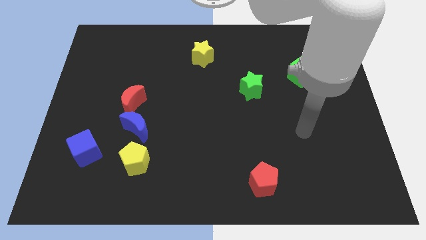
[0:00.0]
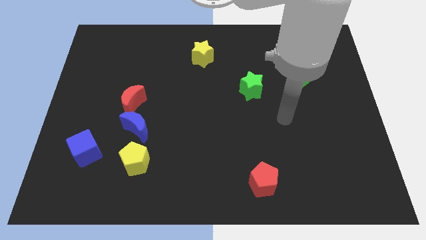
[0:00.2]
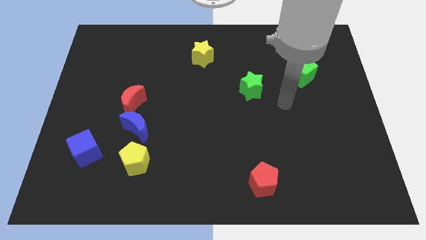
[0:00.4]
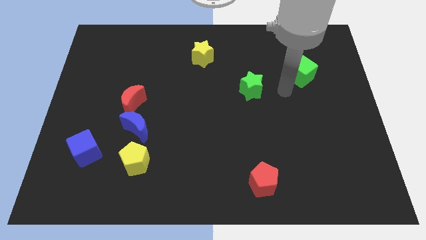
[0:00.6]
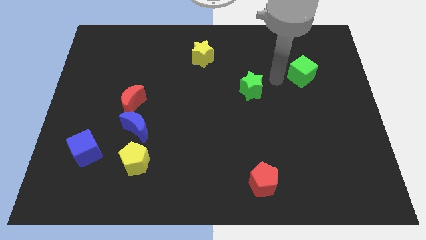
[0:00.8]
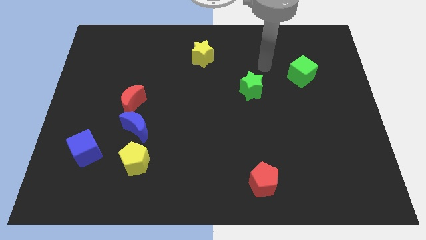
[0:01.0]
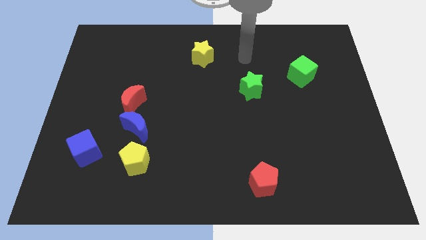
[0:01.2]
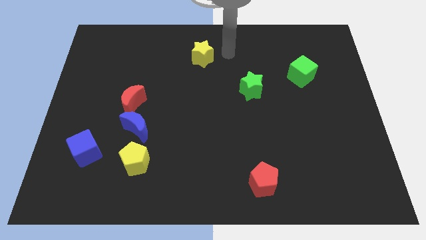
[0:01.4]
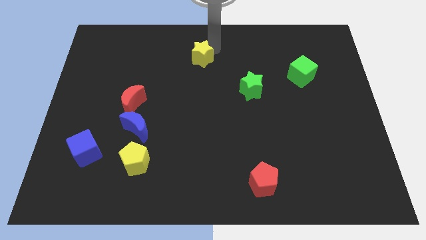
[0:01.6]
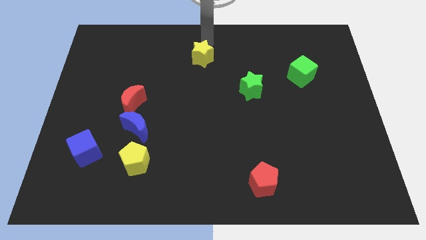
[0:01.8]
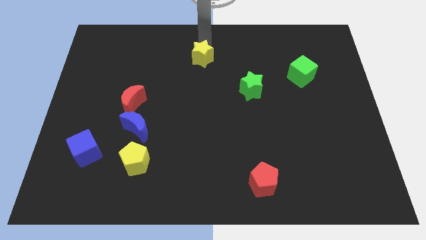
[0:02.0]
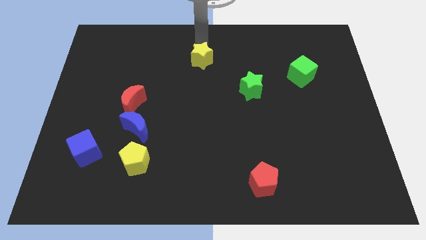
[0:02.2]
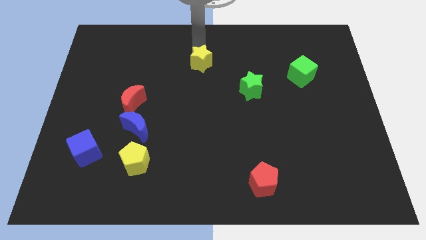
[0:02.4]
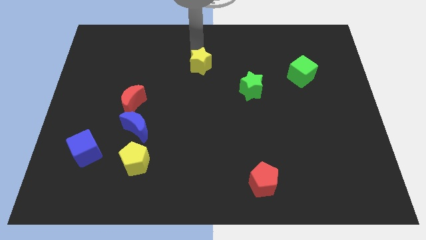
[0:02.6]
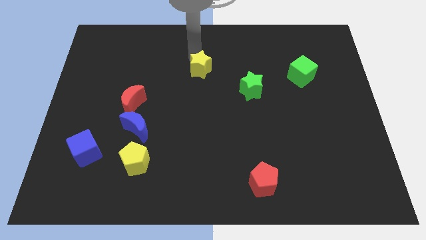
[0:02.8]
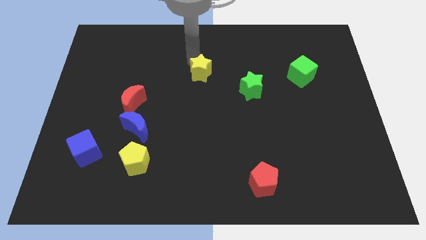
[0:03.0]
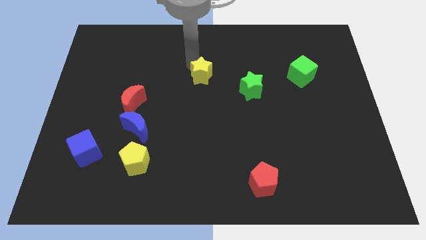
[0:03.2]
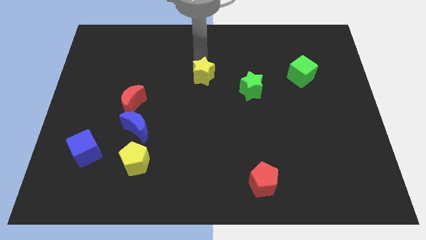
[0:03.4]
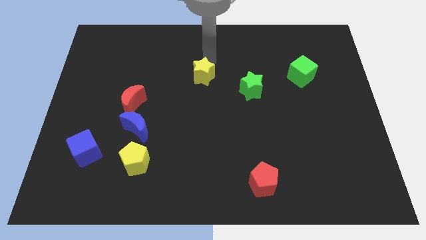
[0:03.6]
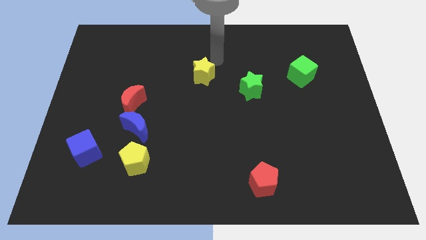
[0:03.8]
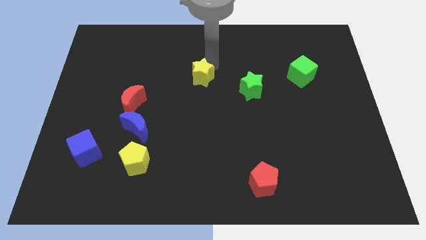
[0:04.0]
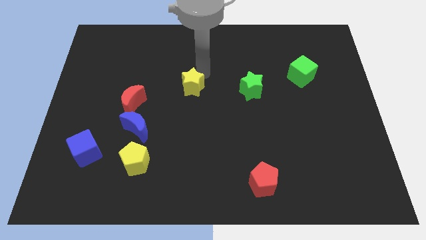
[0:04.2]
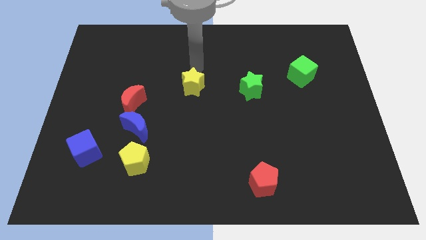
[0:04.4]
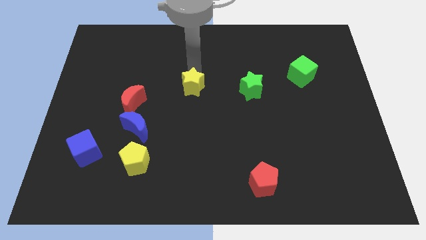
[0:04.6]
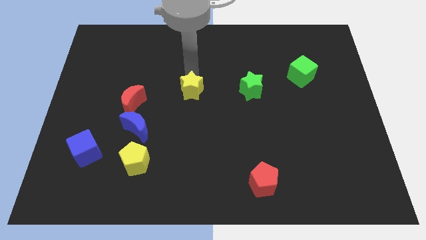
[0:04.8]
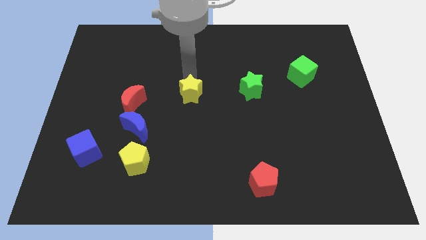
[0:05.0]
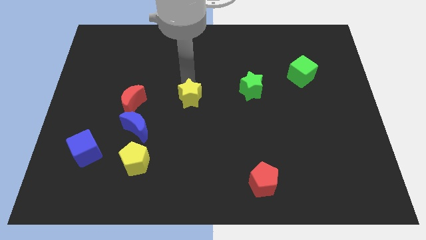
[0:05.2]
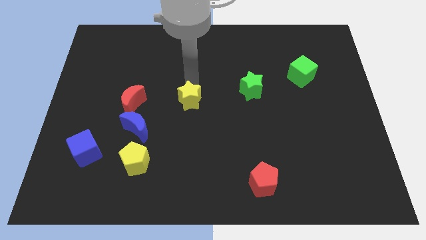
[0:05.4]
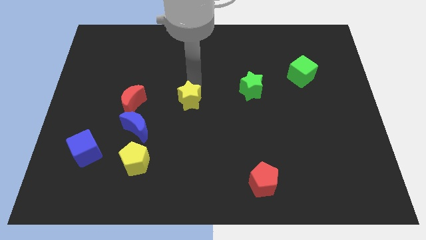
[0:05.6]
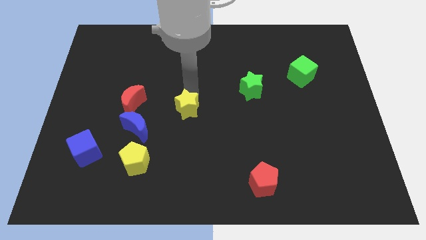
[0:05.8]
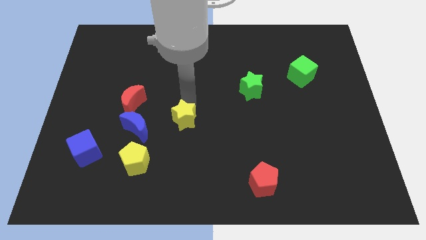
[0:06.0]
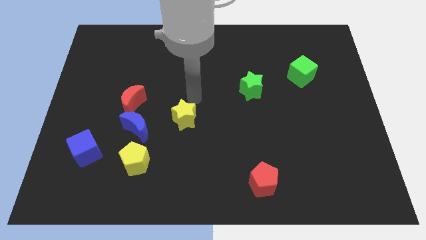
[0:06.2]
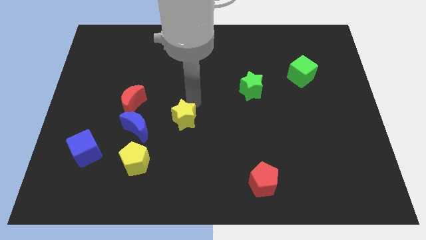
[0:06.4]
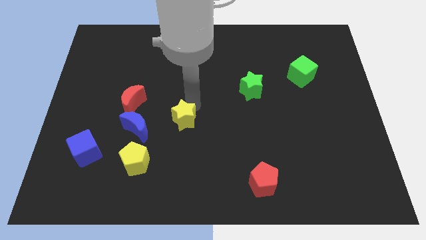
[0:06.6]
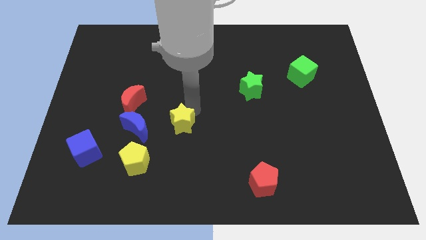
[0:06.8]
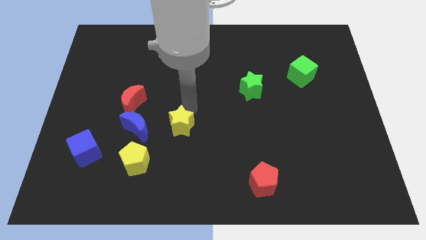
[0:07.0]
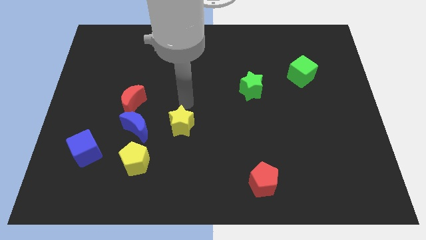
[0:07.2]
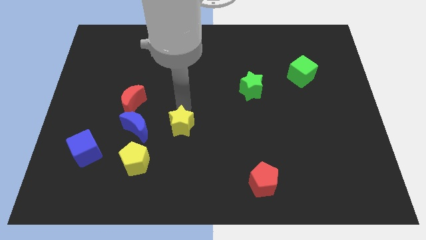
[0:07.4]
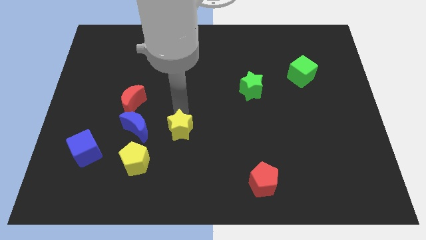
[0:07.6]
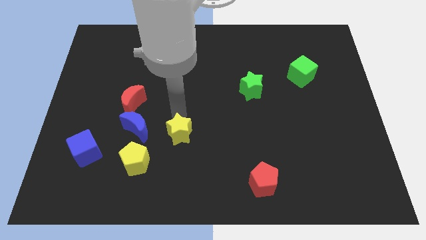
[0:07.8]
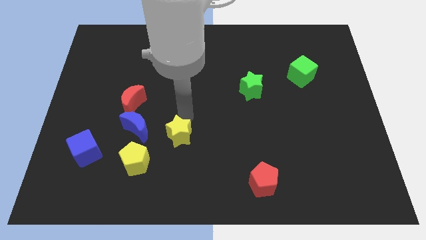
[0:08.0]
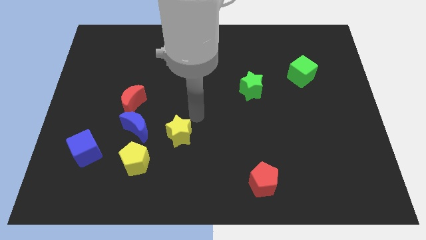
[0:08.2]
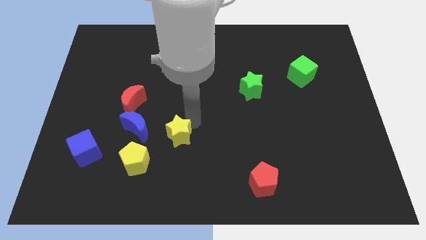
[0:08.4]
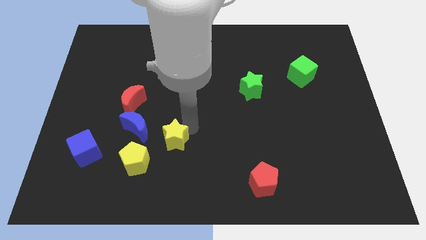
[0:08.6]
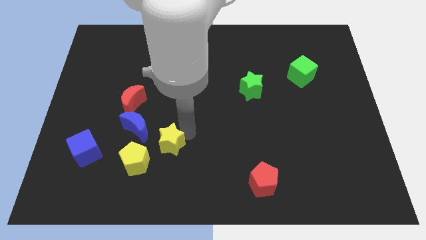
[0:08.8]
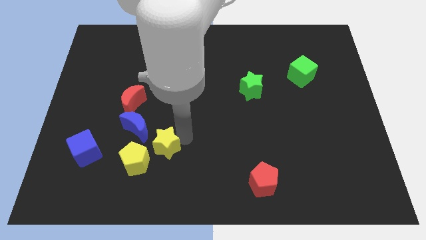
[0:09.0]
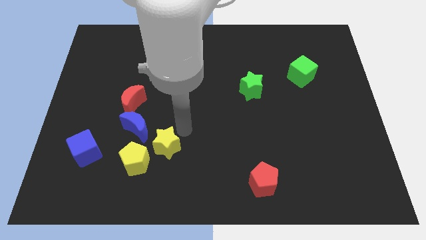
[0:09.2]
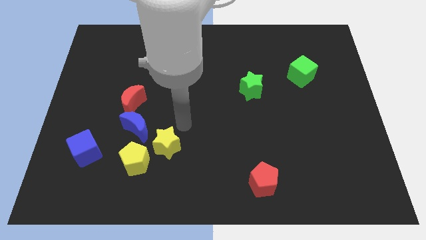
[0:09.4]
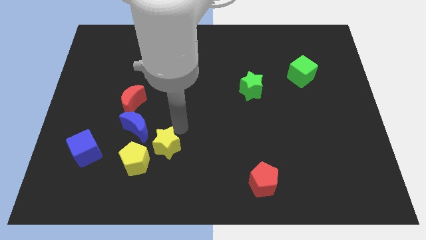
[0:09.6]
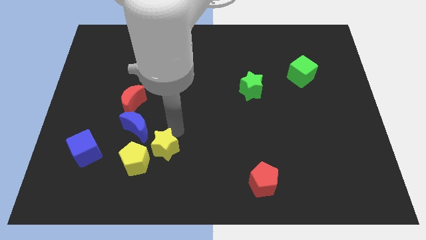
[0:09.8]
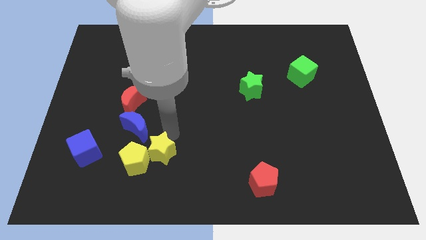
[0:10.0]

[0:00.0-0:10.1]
move the yellow star next to the yellow pentagon

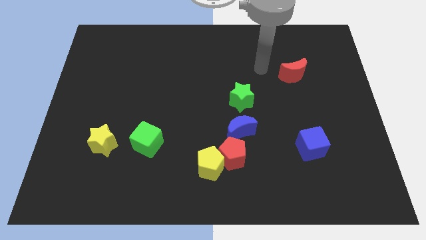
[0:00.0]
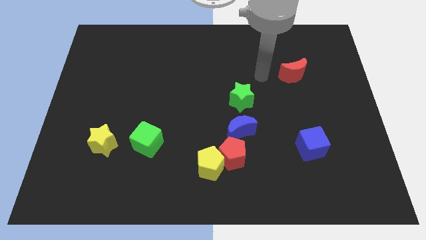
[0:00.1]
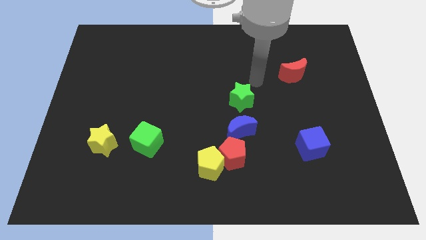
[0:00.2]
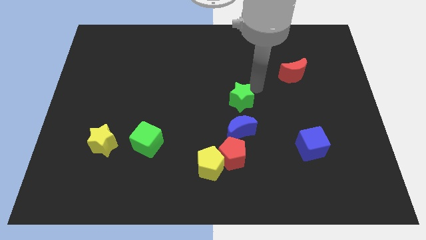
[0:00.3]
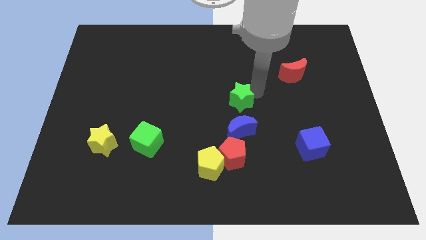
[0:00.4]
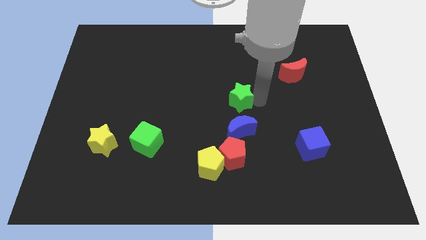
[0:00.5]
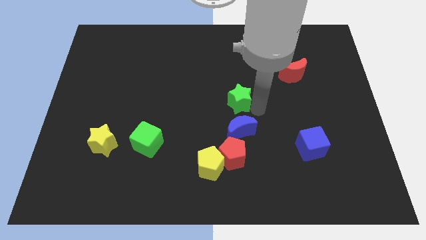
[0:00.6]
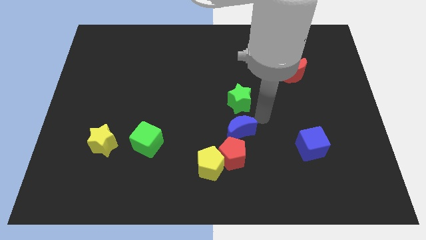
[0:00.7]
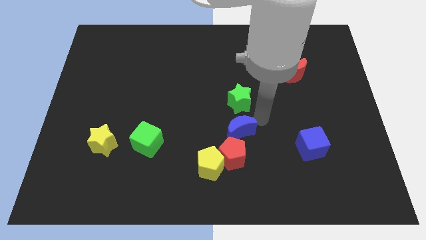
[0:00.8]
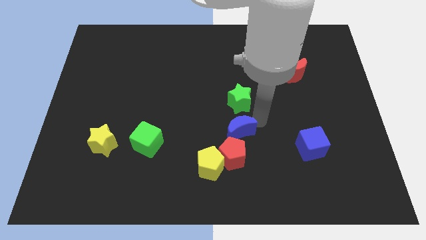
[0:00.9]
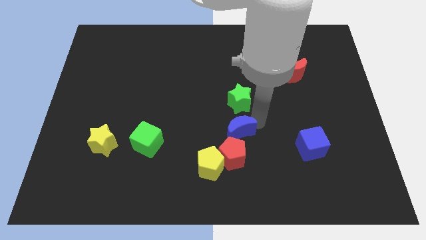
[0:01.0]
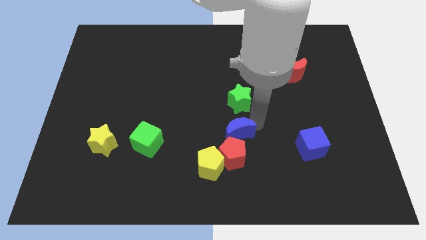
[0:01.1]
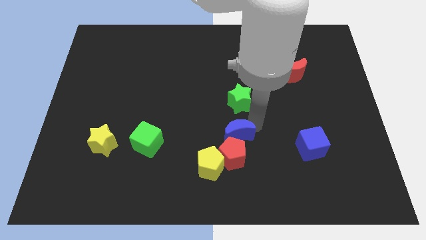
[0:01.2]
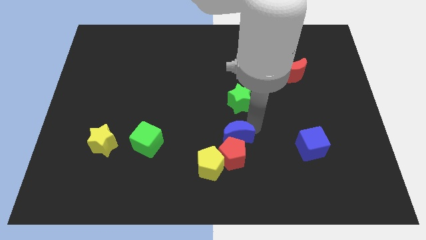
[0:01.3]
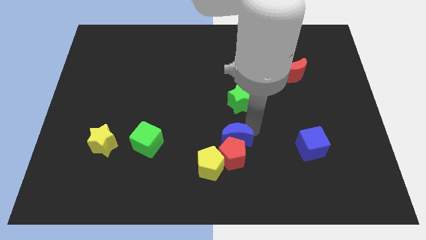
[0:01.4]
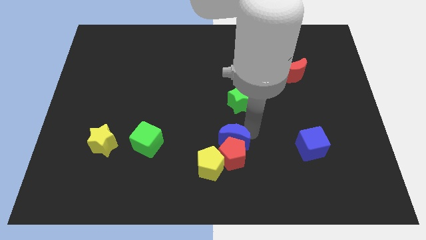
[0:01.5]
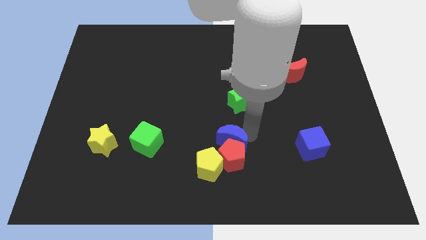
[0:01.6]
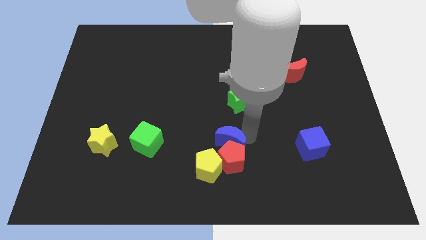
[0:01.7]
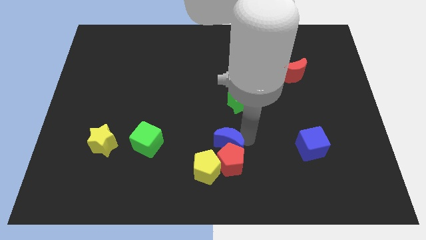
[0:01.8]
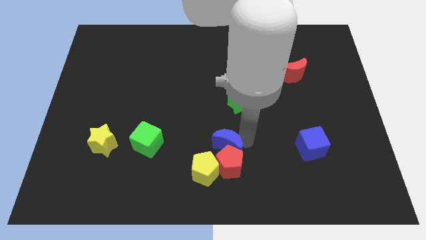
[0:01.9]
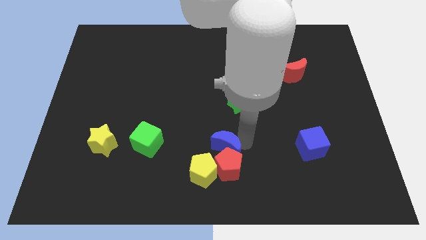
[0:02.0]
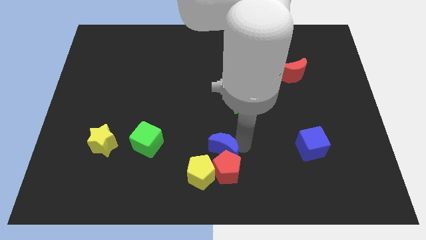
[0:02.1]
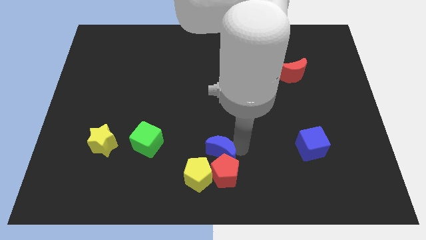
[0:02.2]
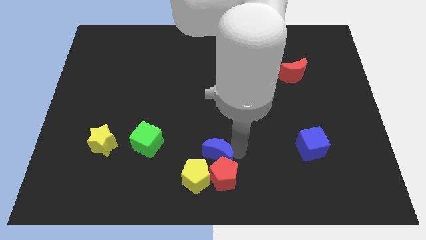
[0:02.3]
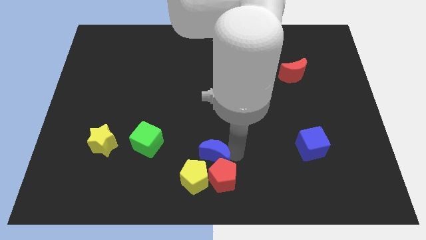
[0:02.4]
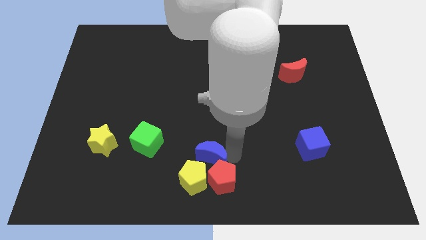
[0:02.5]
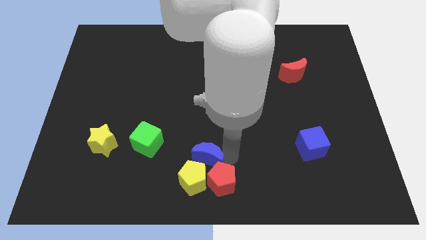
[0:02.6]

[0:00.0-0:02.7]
put the blue moon next to the yellow pentagon
